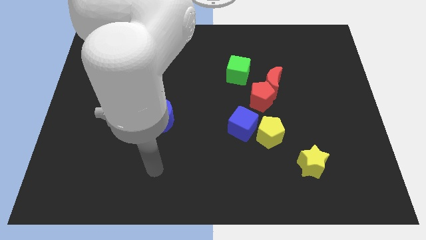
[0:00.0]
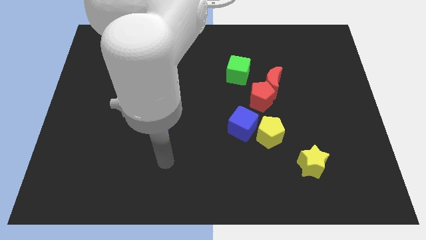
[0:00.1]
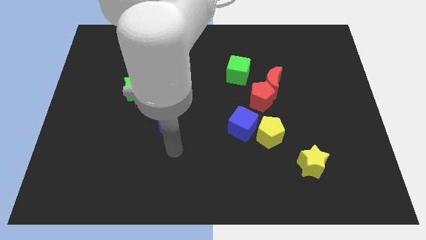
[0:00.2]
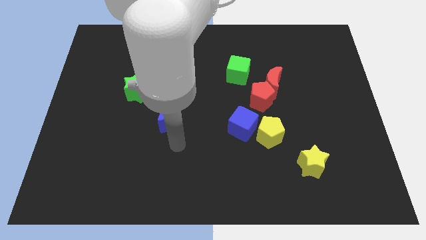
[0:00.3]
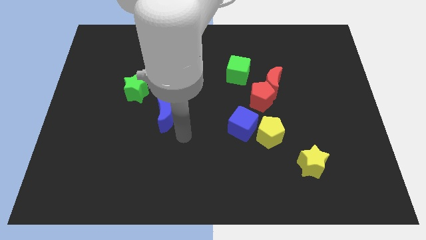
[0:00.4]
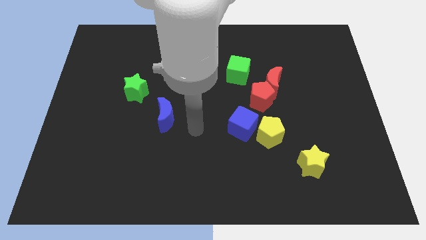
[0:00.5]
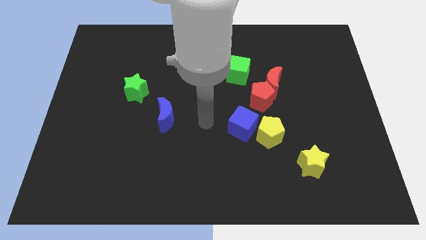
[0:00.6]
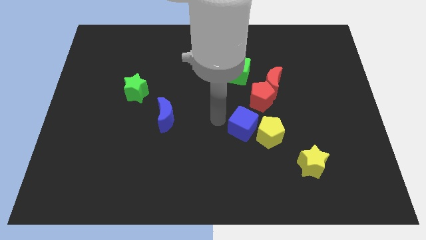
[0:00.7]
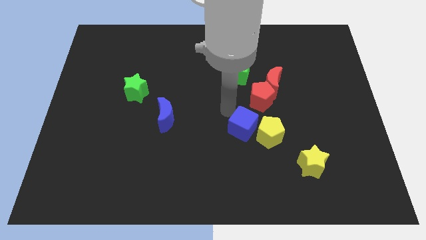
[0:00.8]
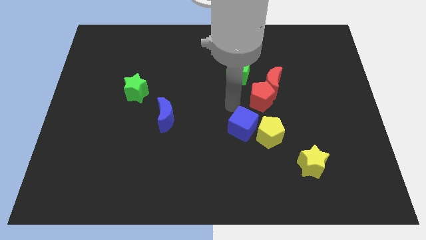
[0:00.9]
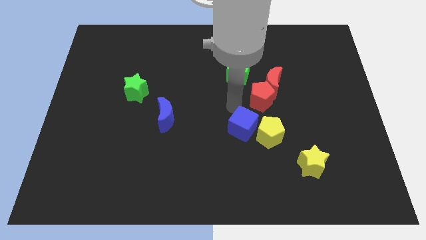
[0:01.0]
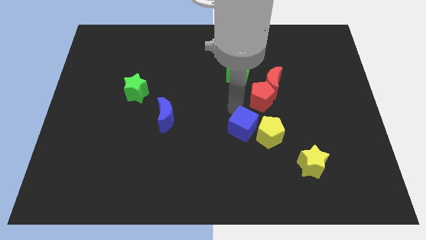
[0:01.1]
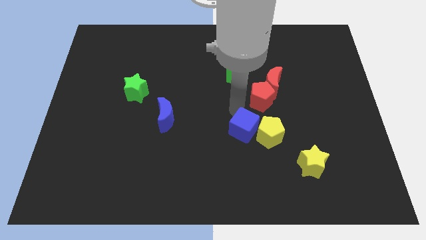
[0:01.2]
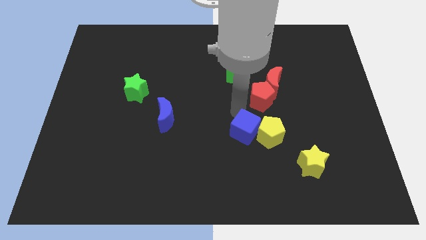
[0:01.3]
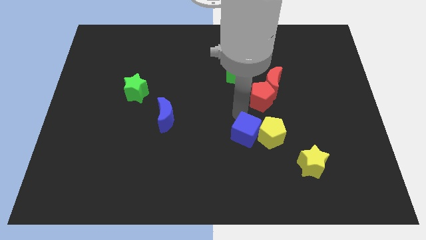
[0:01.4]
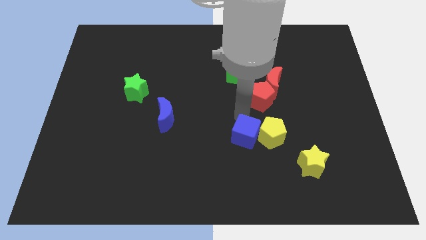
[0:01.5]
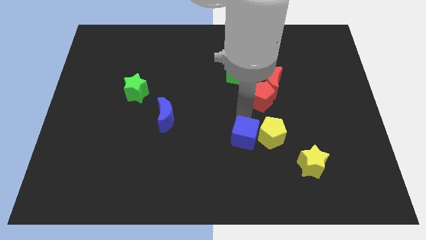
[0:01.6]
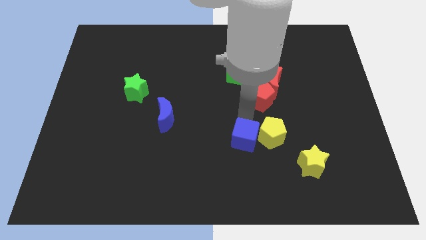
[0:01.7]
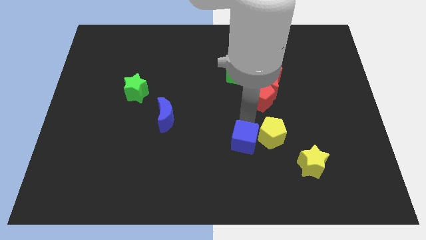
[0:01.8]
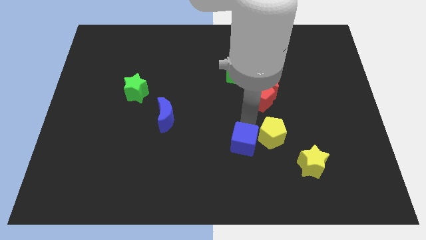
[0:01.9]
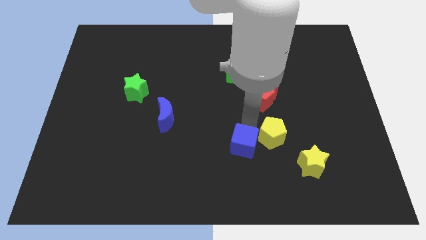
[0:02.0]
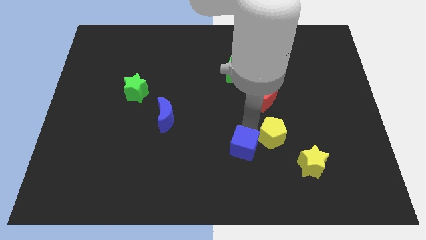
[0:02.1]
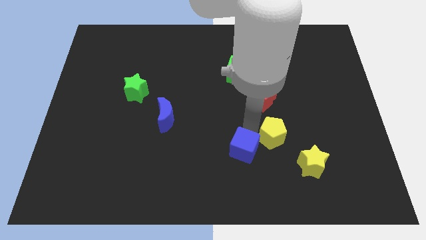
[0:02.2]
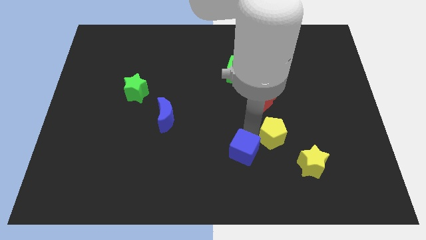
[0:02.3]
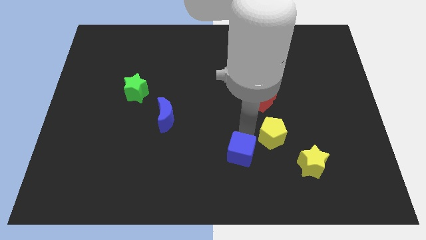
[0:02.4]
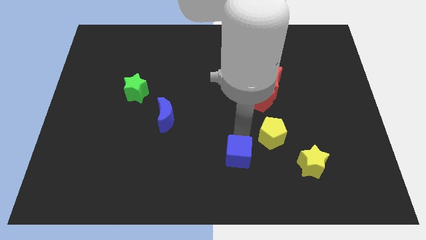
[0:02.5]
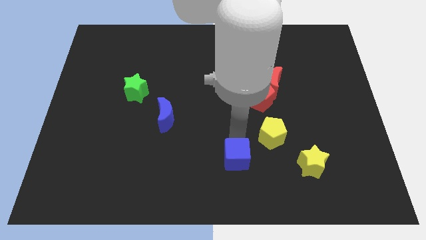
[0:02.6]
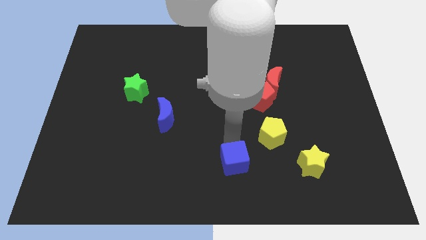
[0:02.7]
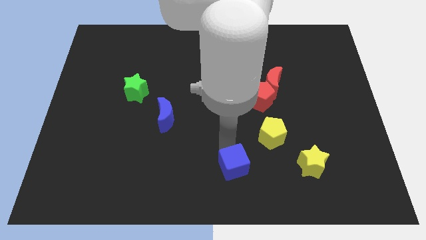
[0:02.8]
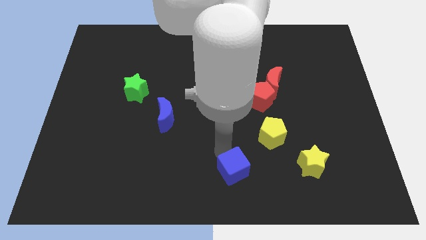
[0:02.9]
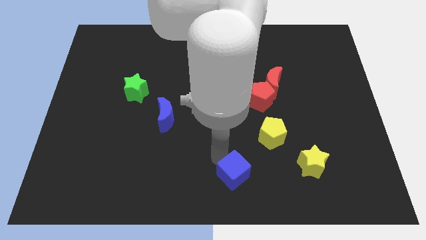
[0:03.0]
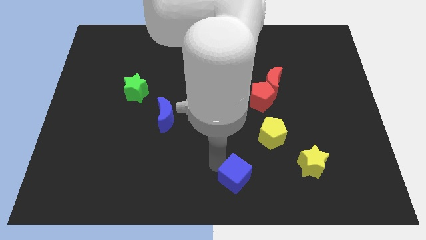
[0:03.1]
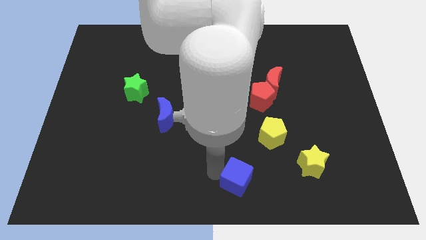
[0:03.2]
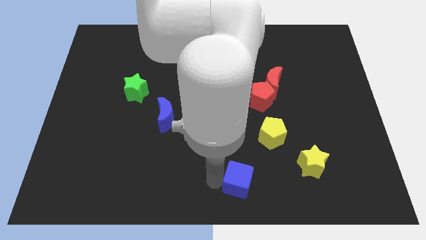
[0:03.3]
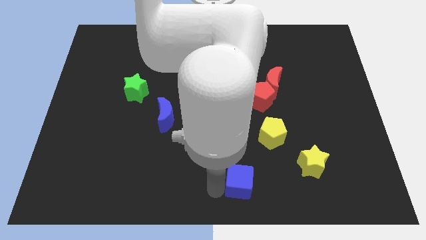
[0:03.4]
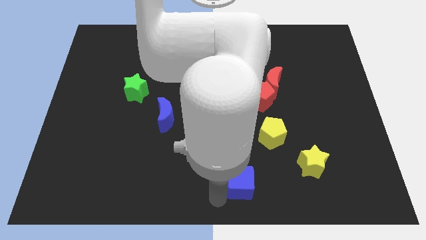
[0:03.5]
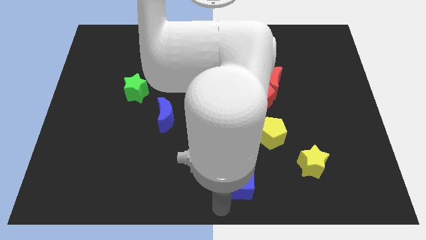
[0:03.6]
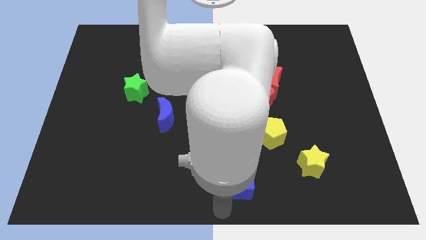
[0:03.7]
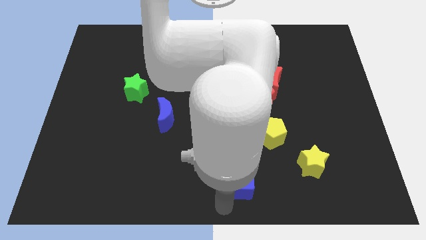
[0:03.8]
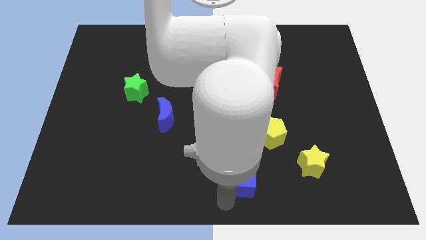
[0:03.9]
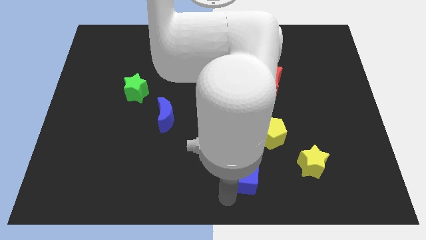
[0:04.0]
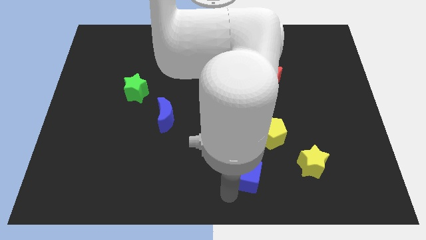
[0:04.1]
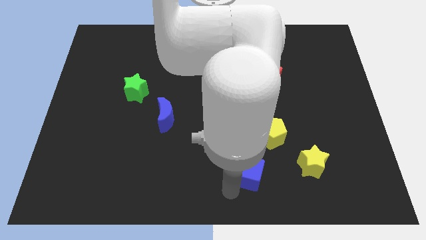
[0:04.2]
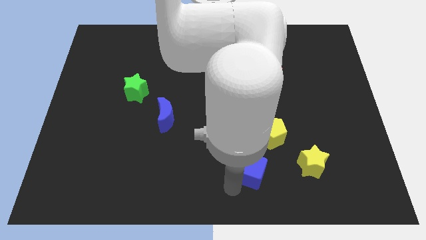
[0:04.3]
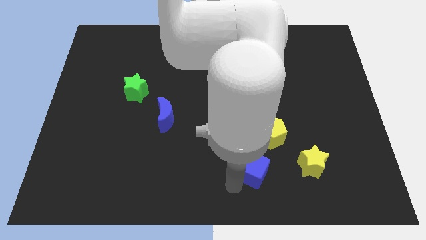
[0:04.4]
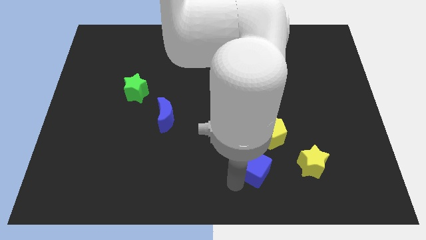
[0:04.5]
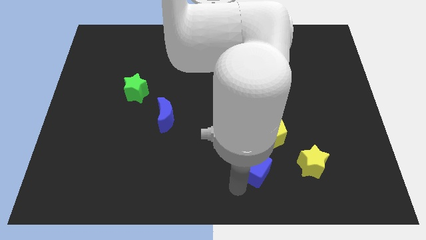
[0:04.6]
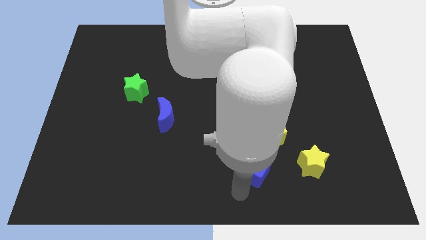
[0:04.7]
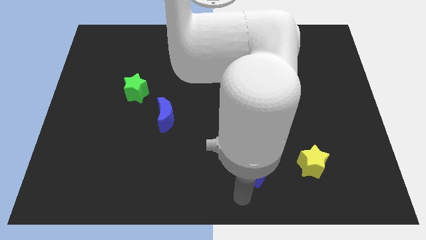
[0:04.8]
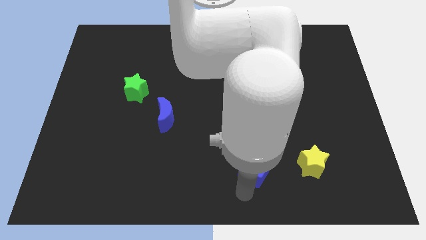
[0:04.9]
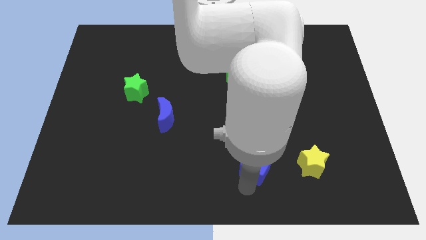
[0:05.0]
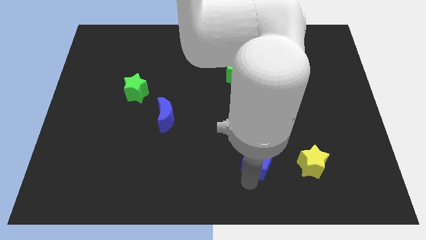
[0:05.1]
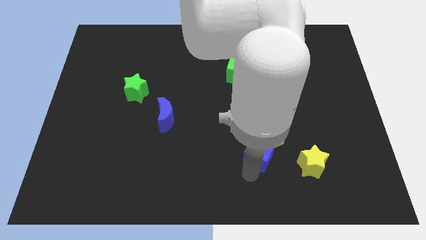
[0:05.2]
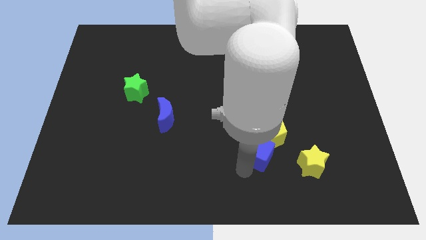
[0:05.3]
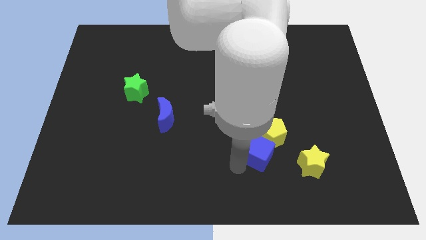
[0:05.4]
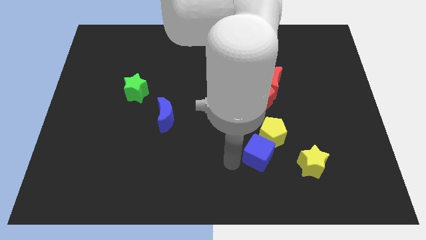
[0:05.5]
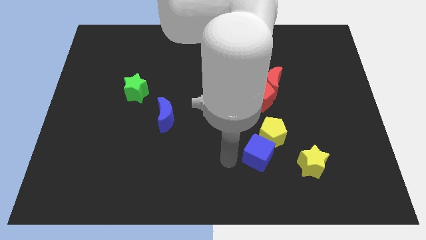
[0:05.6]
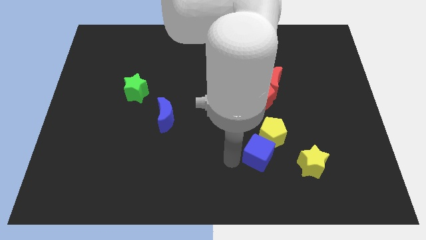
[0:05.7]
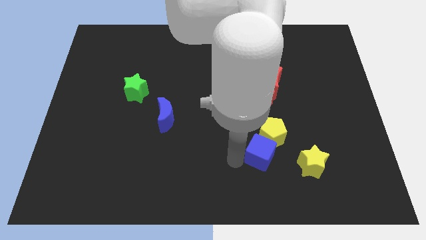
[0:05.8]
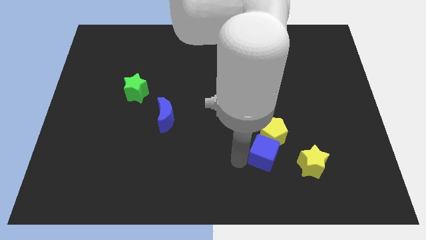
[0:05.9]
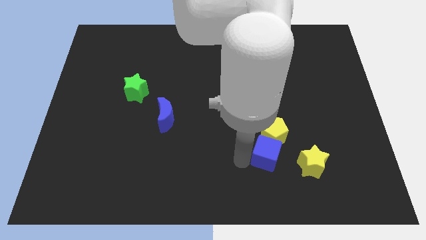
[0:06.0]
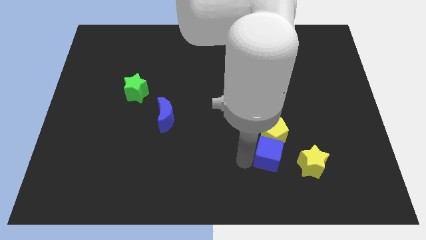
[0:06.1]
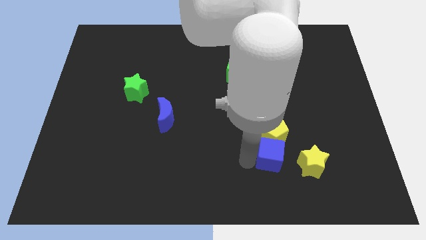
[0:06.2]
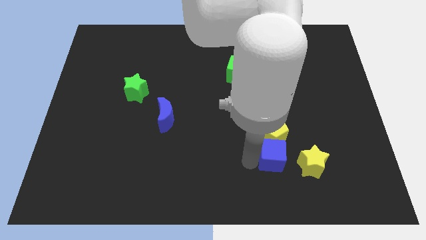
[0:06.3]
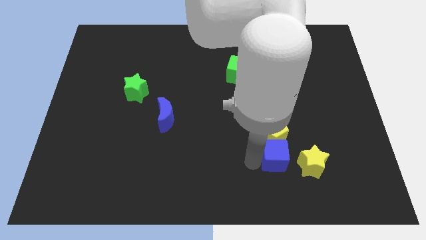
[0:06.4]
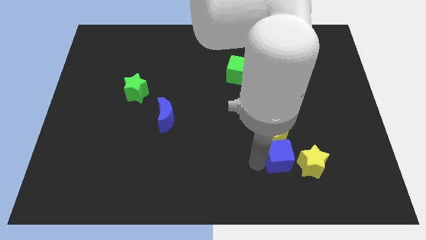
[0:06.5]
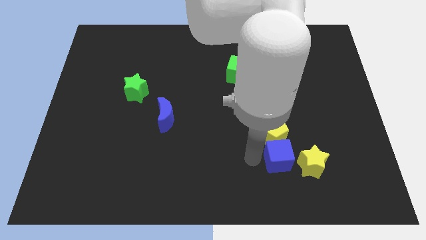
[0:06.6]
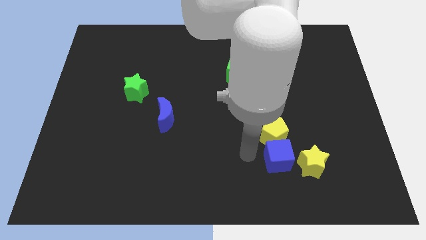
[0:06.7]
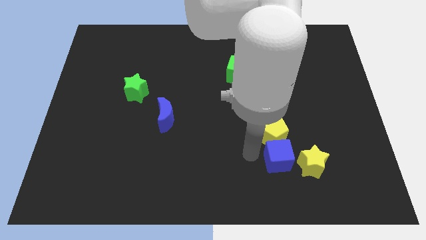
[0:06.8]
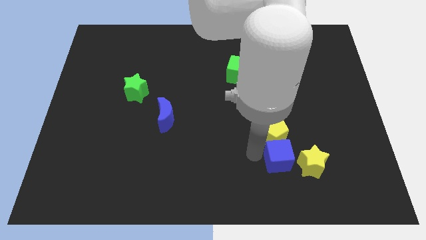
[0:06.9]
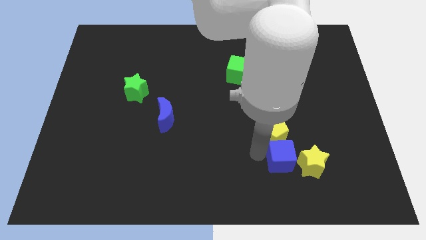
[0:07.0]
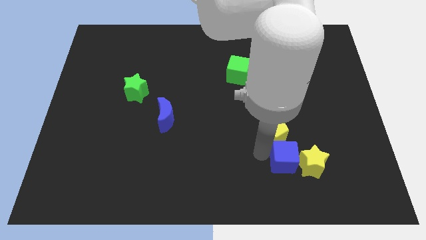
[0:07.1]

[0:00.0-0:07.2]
slide the blue cube close to the yellow star

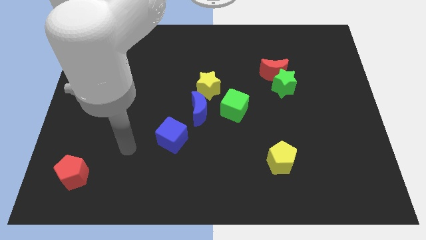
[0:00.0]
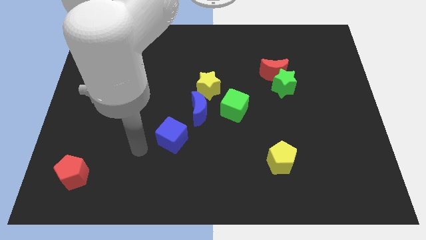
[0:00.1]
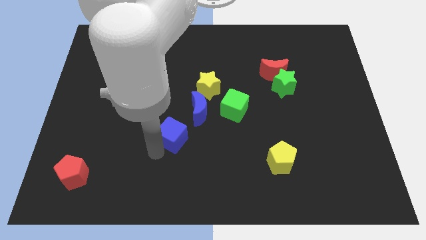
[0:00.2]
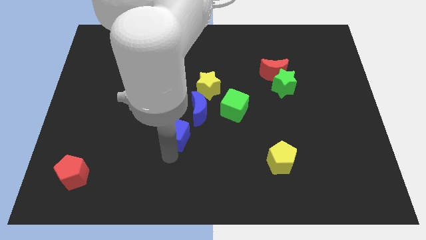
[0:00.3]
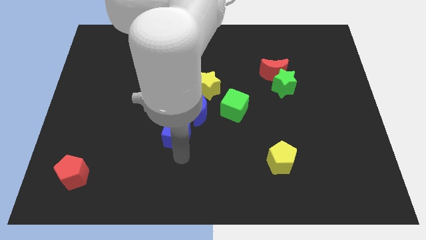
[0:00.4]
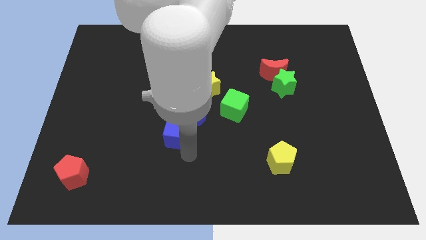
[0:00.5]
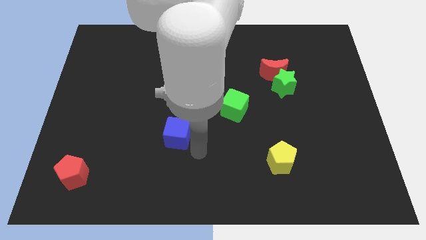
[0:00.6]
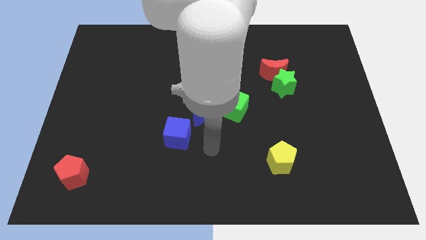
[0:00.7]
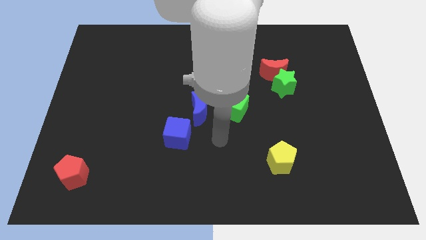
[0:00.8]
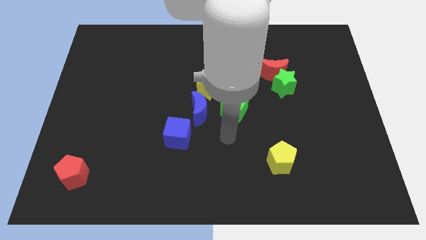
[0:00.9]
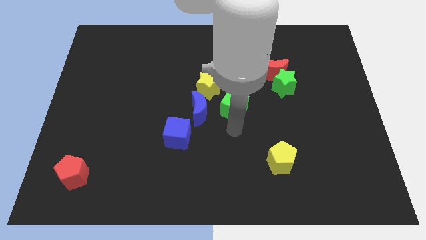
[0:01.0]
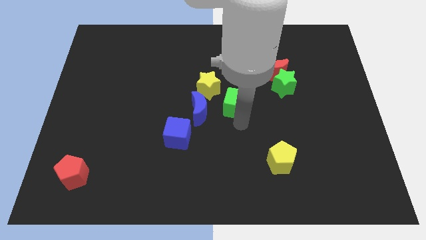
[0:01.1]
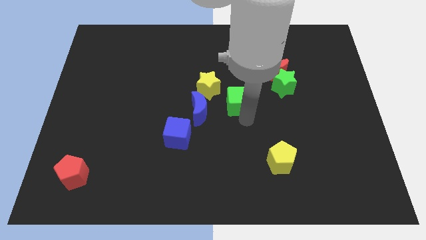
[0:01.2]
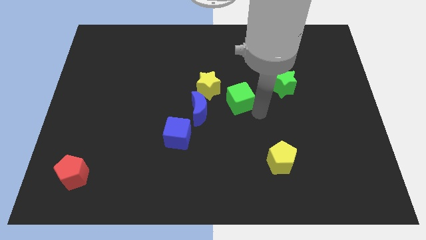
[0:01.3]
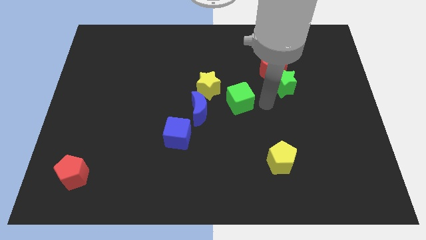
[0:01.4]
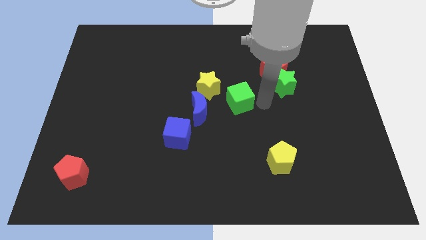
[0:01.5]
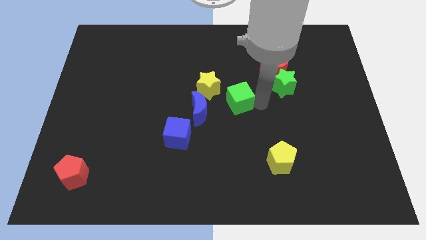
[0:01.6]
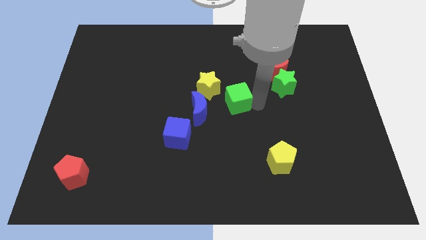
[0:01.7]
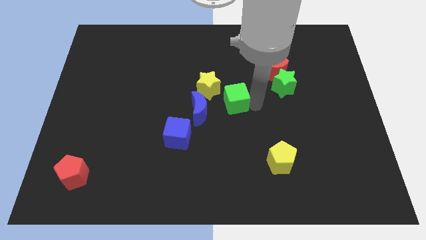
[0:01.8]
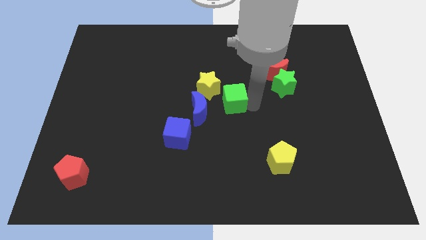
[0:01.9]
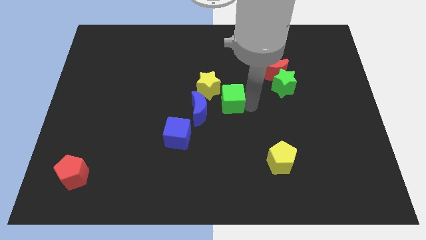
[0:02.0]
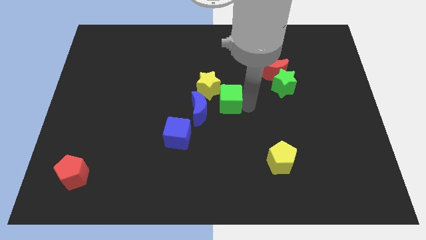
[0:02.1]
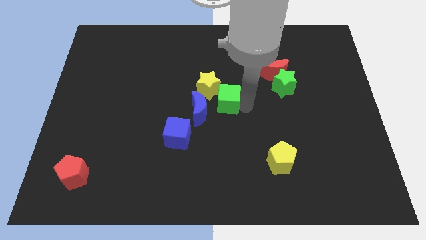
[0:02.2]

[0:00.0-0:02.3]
move the green cube towards the yellow star
